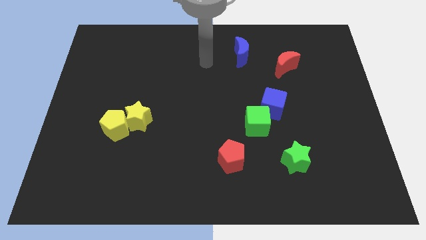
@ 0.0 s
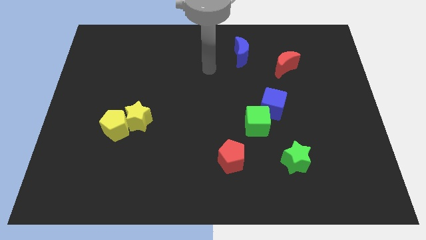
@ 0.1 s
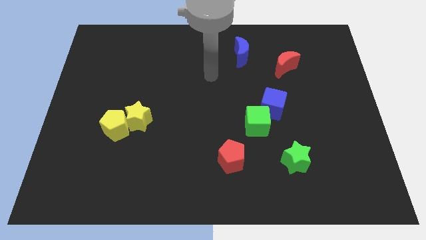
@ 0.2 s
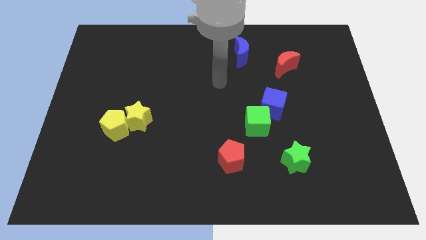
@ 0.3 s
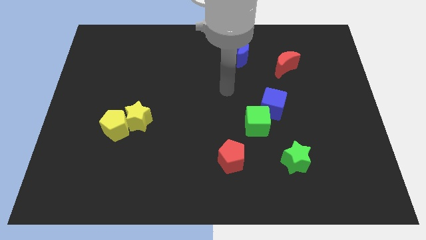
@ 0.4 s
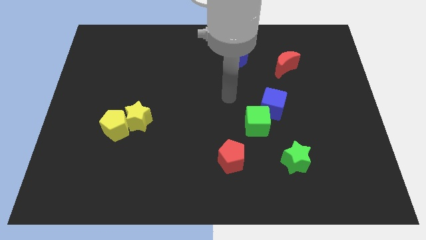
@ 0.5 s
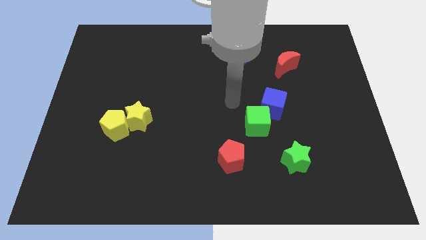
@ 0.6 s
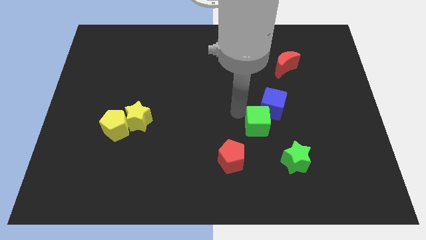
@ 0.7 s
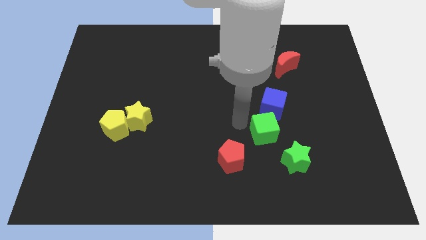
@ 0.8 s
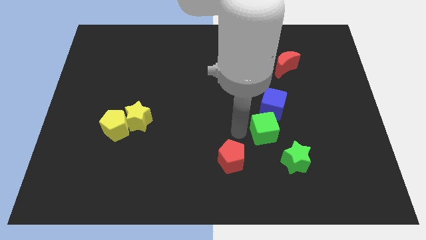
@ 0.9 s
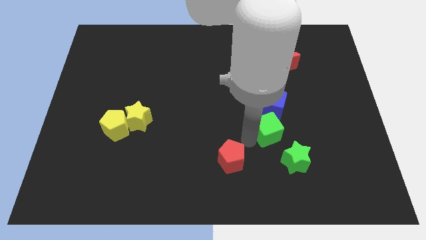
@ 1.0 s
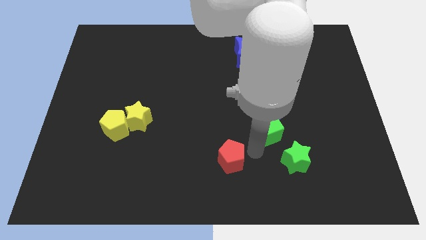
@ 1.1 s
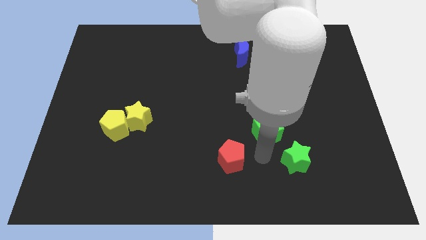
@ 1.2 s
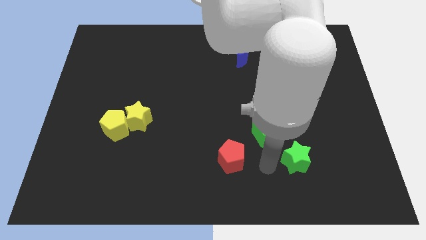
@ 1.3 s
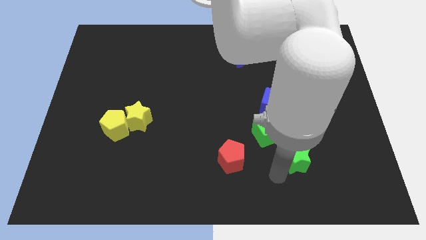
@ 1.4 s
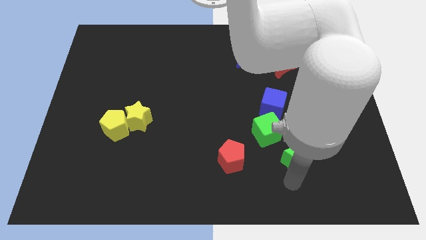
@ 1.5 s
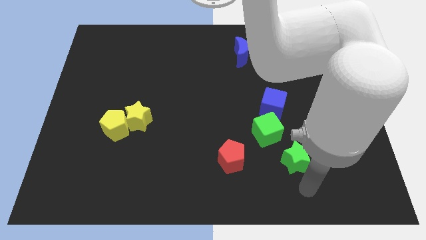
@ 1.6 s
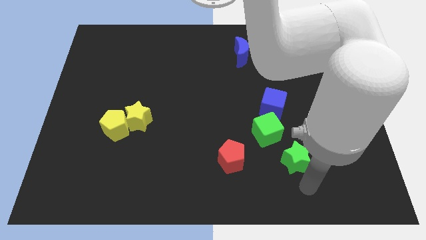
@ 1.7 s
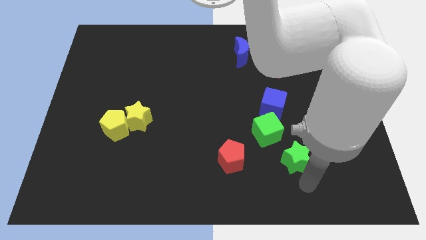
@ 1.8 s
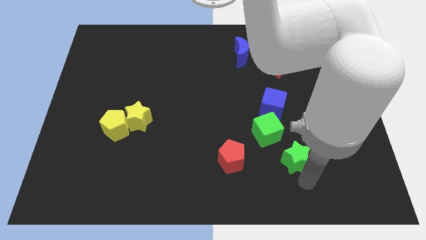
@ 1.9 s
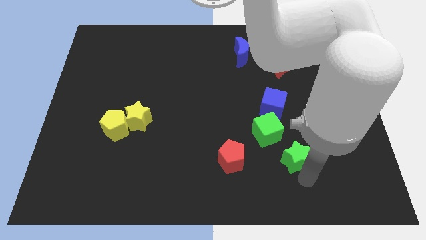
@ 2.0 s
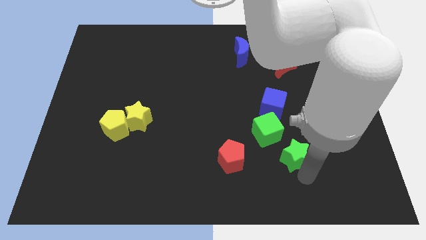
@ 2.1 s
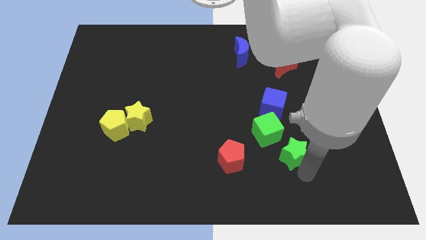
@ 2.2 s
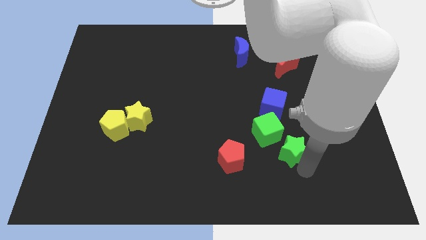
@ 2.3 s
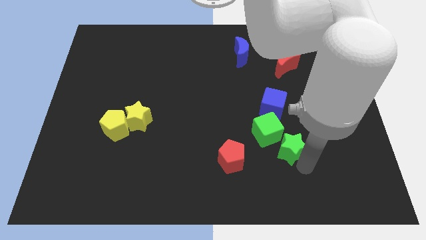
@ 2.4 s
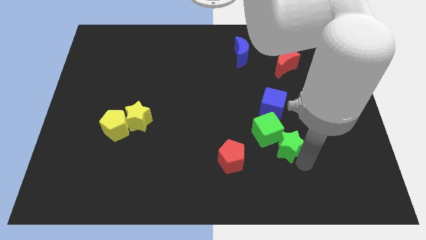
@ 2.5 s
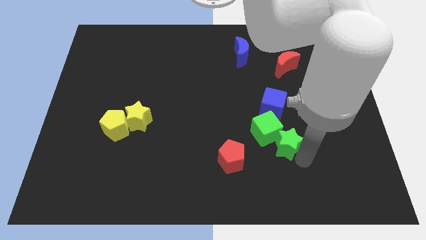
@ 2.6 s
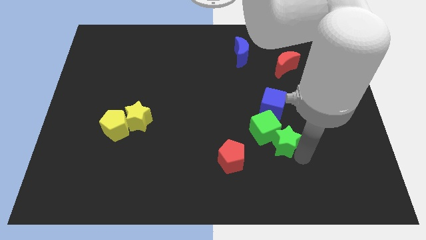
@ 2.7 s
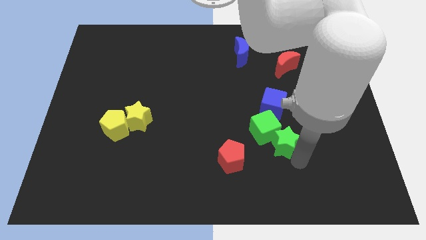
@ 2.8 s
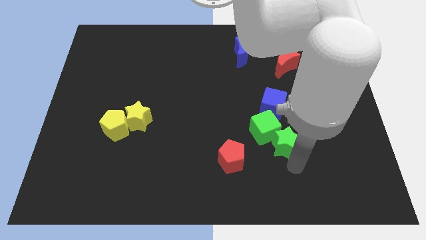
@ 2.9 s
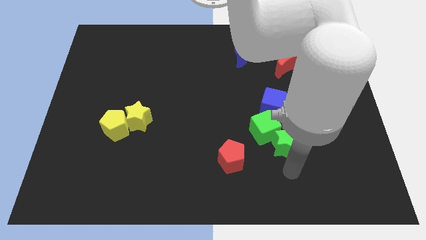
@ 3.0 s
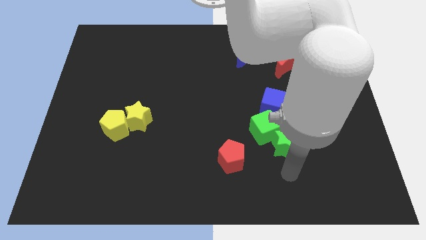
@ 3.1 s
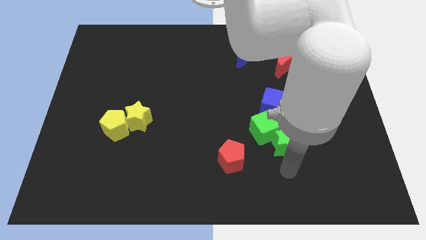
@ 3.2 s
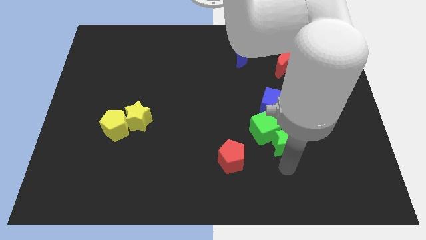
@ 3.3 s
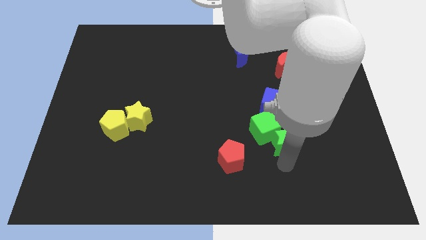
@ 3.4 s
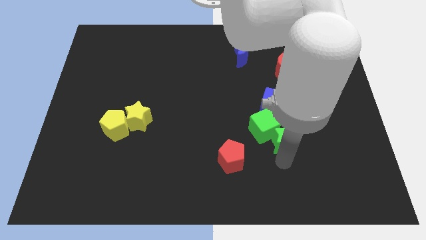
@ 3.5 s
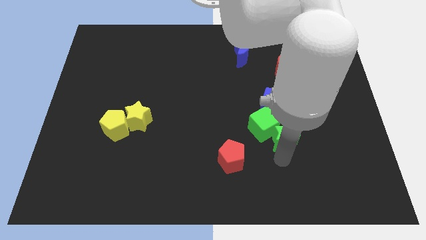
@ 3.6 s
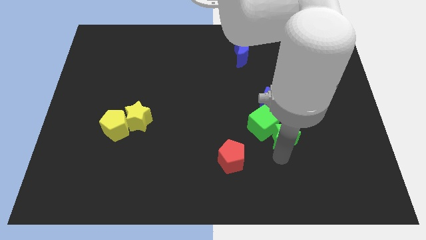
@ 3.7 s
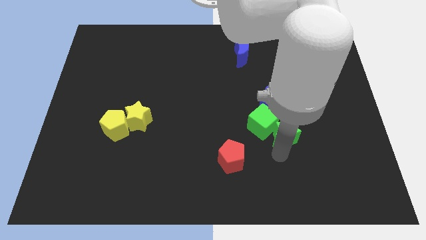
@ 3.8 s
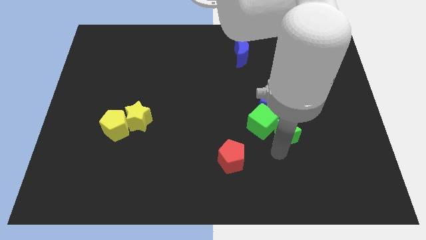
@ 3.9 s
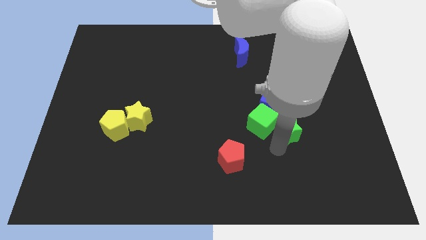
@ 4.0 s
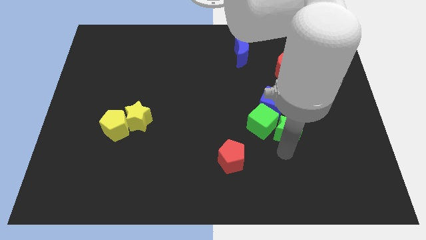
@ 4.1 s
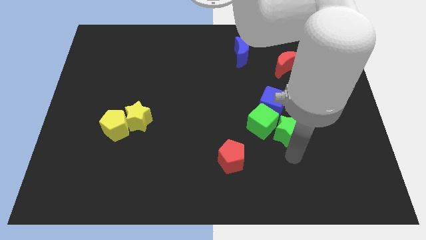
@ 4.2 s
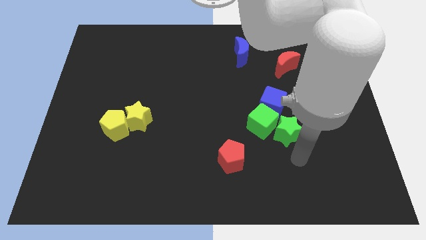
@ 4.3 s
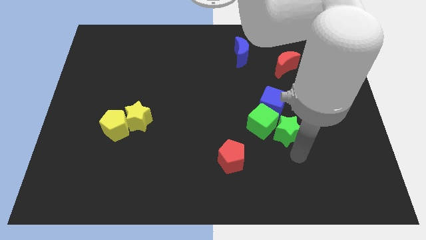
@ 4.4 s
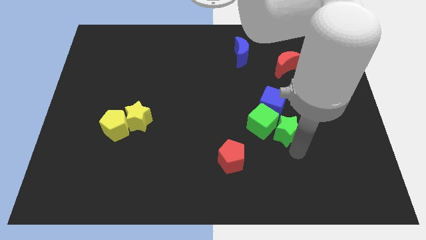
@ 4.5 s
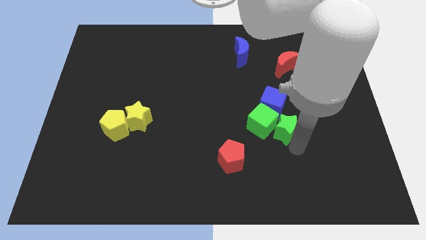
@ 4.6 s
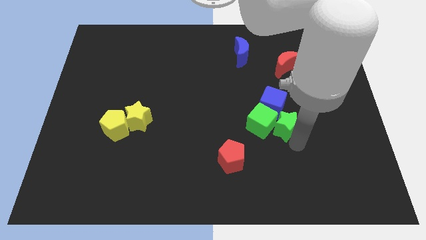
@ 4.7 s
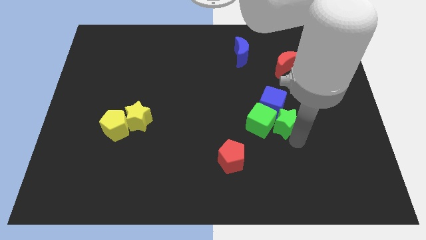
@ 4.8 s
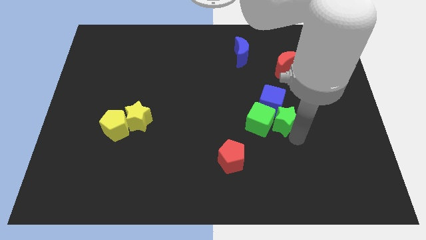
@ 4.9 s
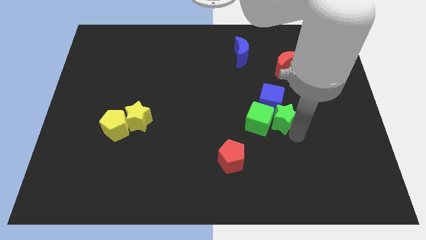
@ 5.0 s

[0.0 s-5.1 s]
push the green star to the blue cube

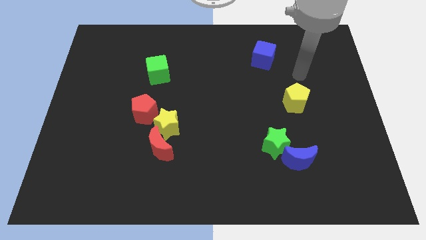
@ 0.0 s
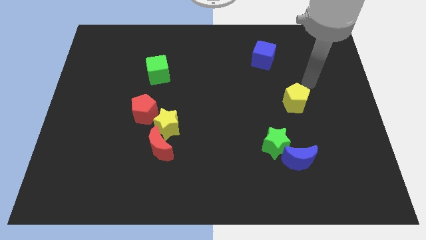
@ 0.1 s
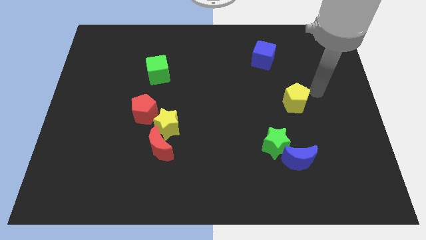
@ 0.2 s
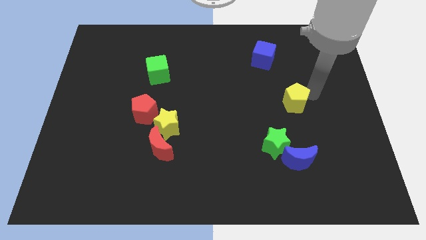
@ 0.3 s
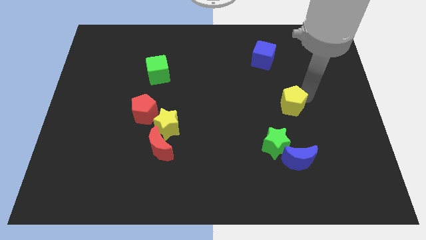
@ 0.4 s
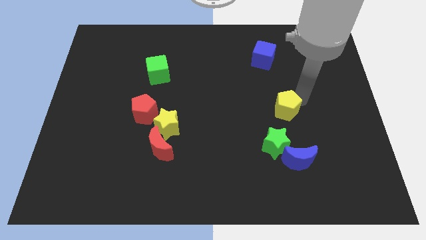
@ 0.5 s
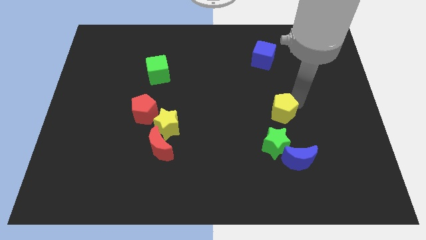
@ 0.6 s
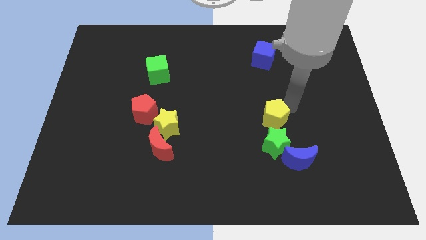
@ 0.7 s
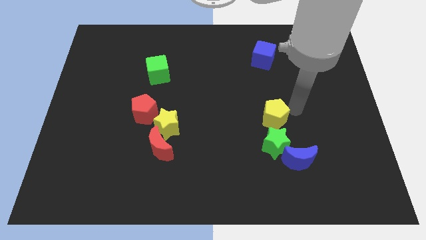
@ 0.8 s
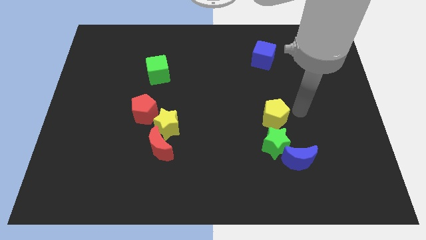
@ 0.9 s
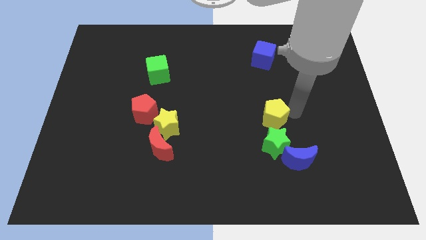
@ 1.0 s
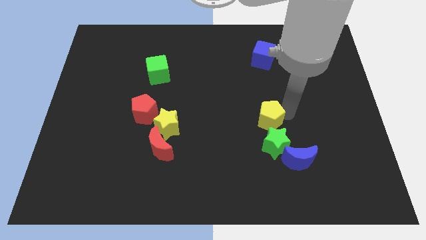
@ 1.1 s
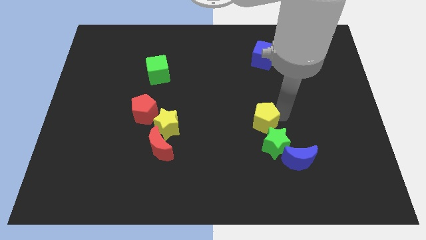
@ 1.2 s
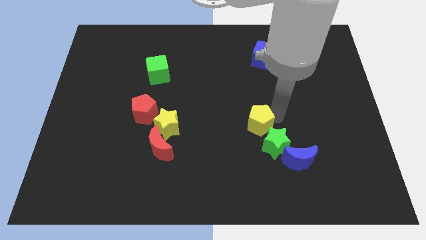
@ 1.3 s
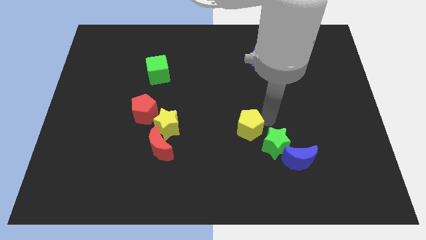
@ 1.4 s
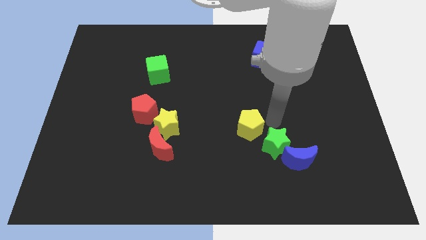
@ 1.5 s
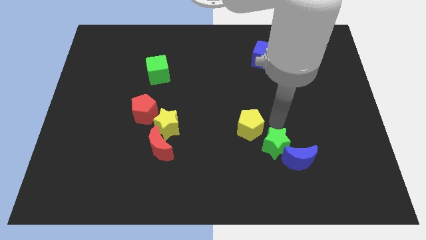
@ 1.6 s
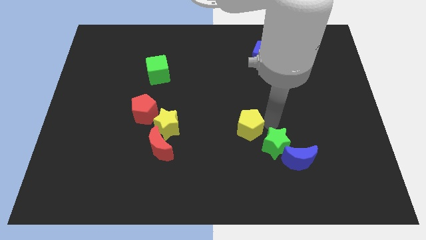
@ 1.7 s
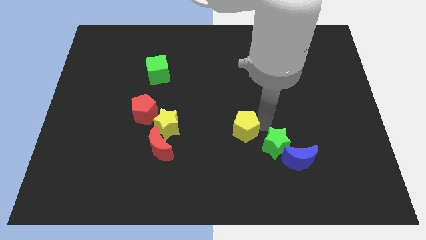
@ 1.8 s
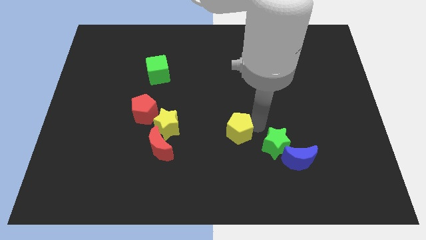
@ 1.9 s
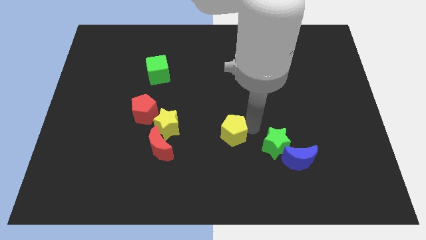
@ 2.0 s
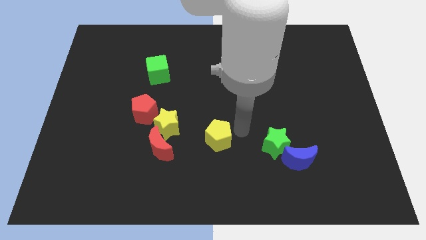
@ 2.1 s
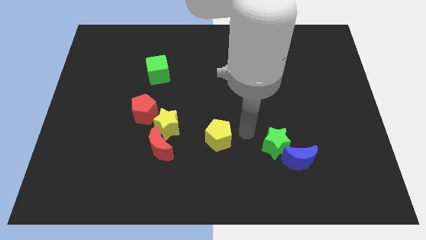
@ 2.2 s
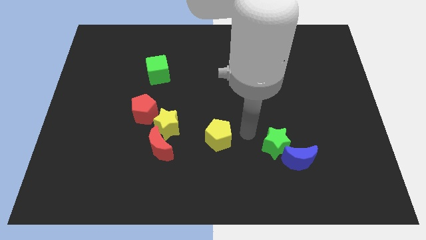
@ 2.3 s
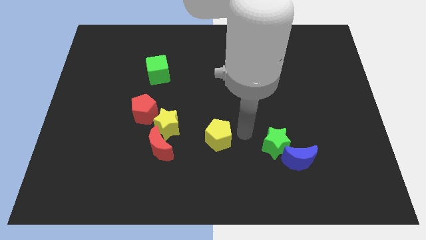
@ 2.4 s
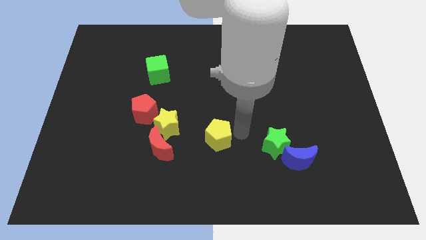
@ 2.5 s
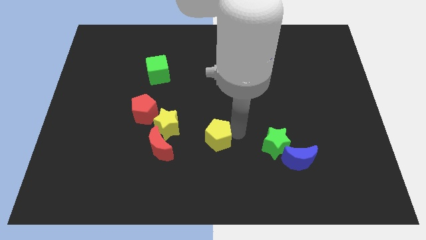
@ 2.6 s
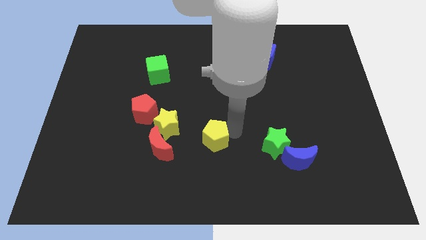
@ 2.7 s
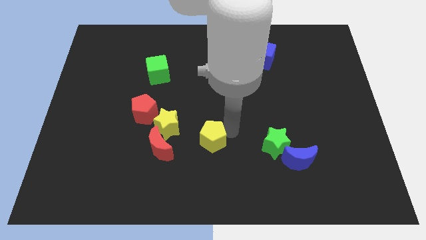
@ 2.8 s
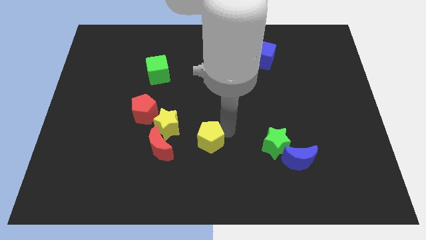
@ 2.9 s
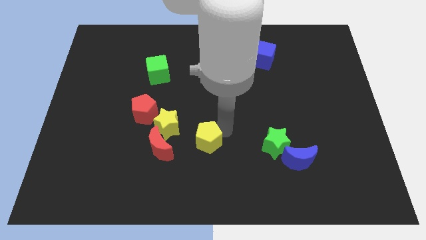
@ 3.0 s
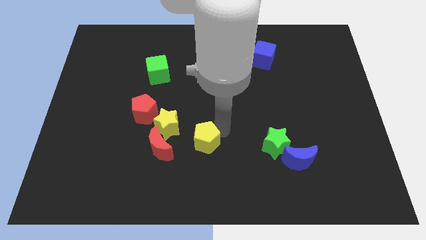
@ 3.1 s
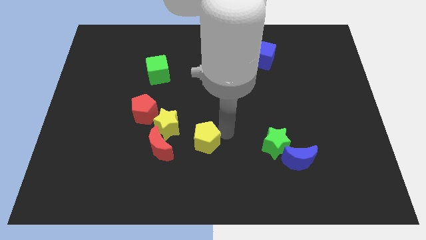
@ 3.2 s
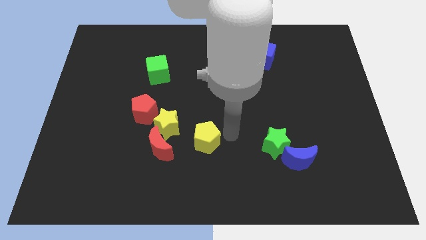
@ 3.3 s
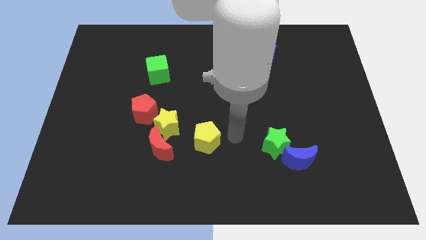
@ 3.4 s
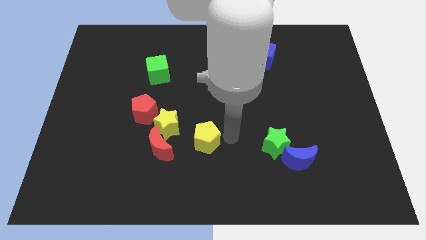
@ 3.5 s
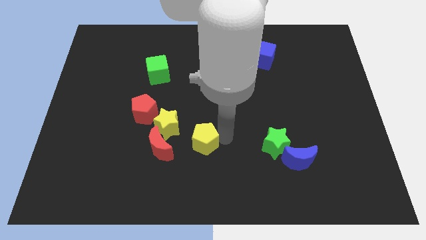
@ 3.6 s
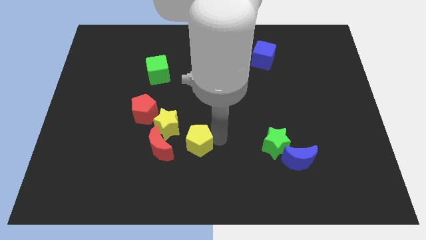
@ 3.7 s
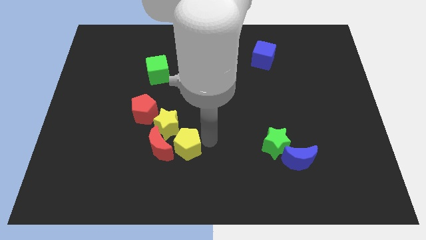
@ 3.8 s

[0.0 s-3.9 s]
put the yellow pentagon close to the red moon
